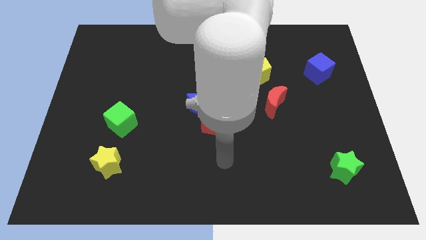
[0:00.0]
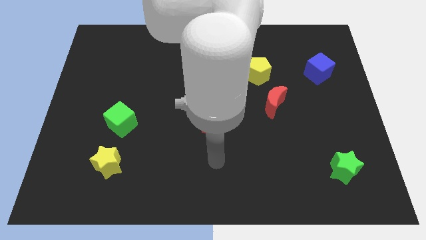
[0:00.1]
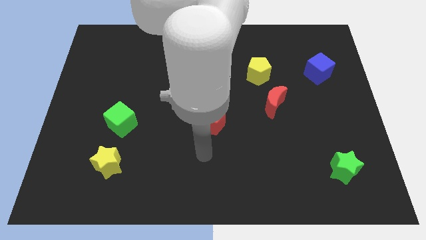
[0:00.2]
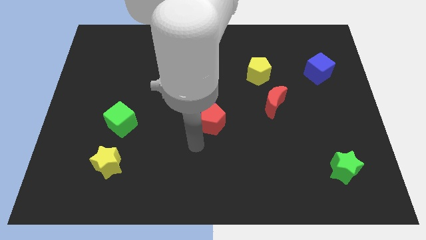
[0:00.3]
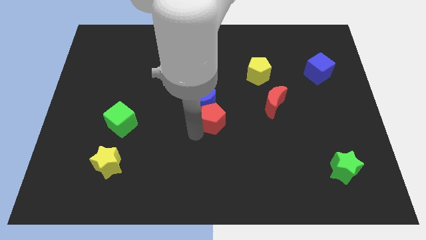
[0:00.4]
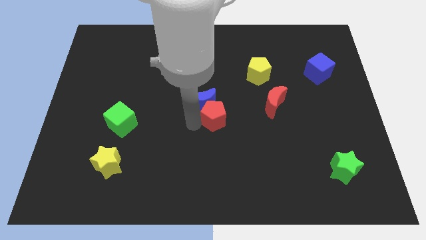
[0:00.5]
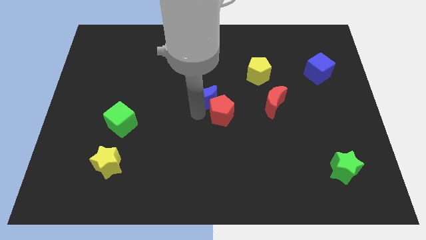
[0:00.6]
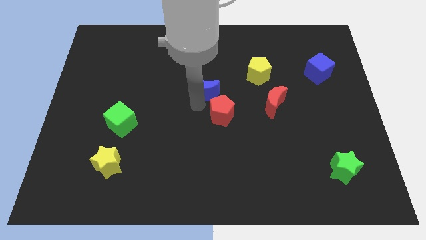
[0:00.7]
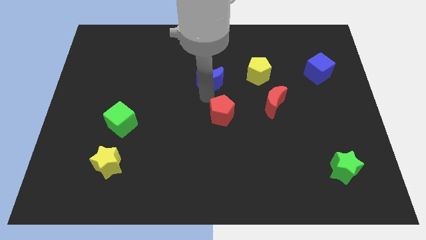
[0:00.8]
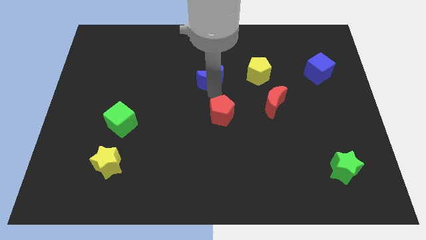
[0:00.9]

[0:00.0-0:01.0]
move the red pentagon away from the blue moon

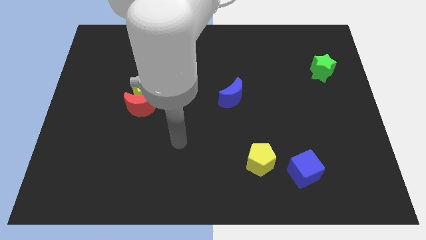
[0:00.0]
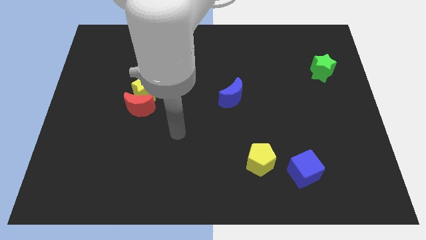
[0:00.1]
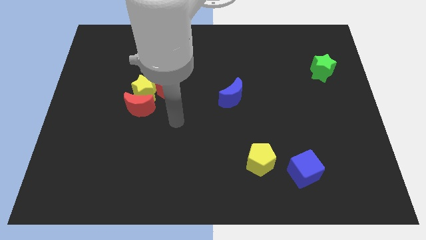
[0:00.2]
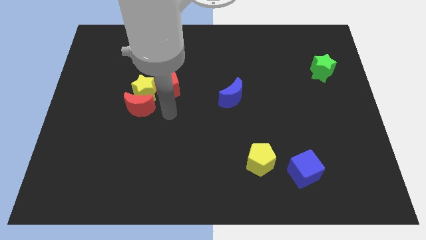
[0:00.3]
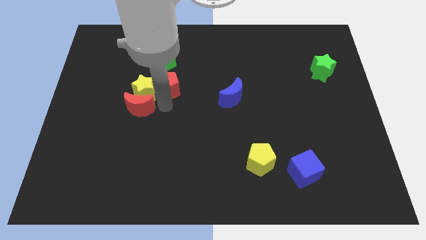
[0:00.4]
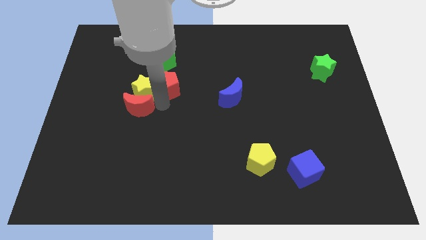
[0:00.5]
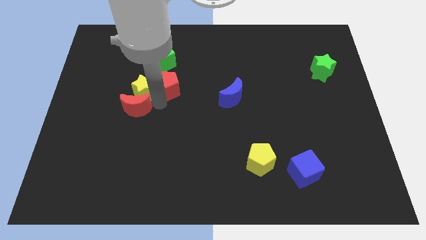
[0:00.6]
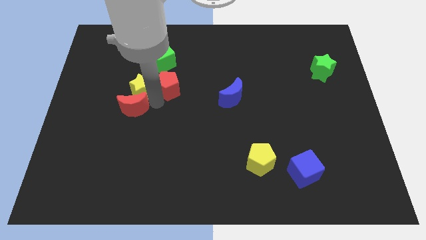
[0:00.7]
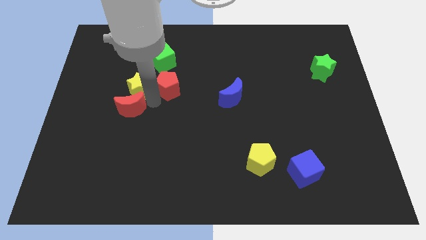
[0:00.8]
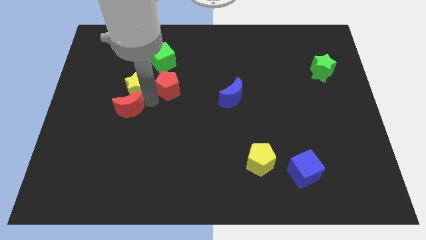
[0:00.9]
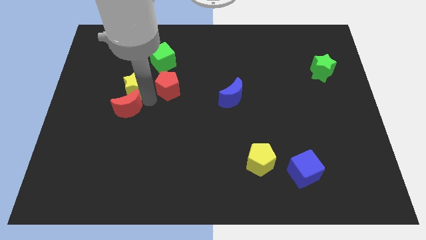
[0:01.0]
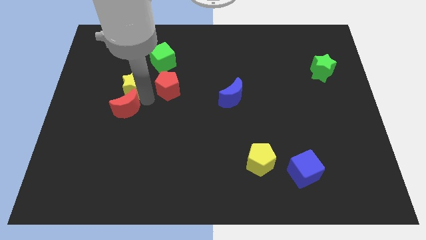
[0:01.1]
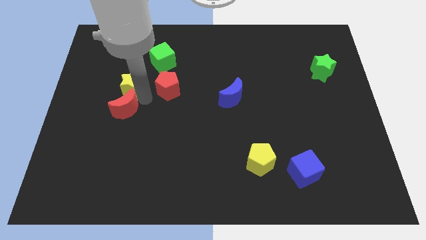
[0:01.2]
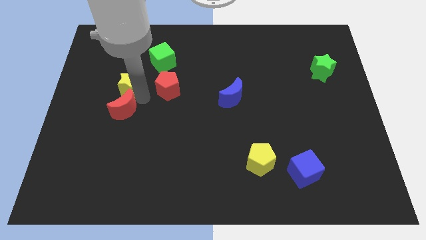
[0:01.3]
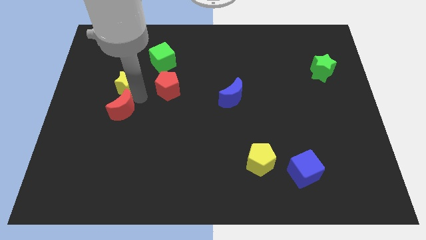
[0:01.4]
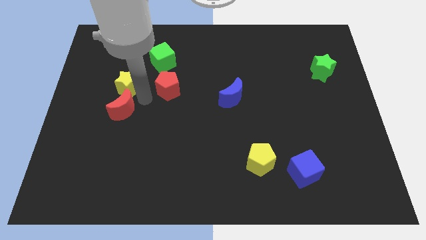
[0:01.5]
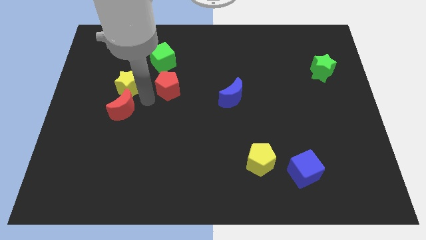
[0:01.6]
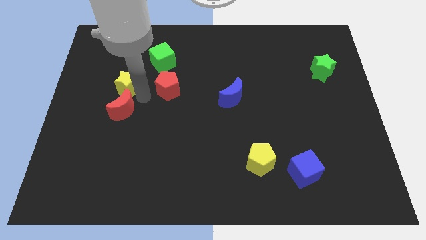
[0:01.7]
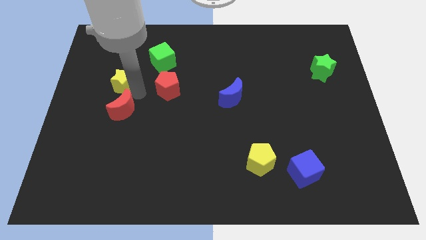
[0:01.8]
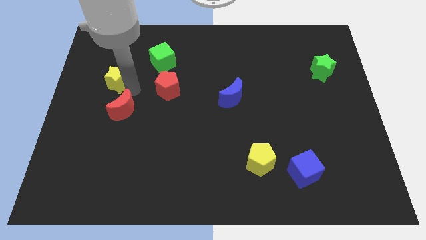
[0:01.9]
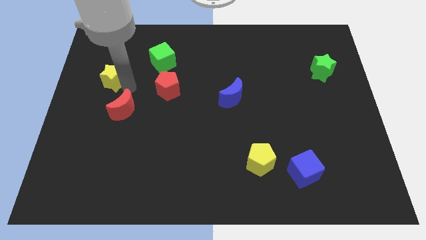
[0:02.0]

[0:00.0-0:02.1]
pull the yellow star apart from the red moon and red pentagon

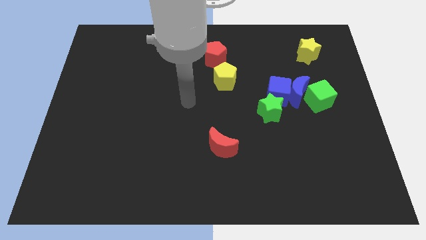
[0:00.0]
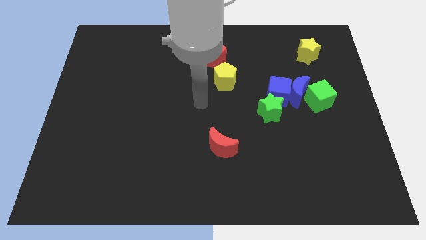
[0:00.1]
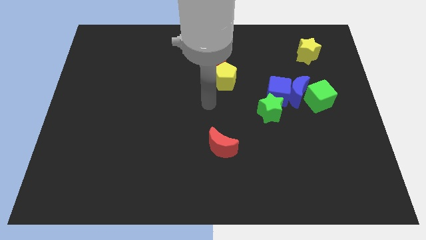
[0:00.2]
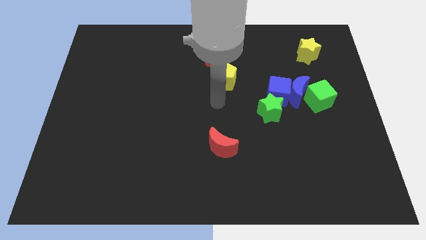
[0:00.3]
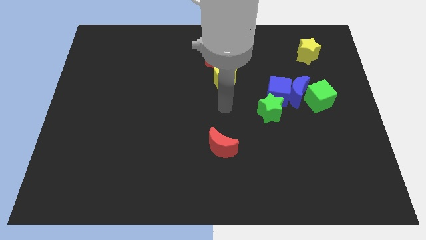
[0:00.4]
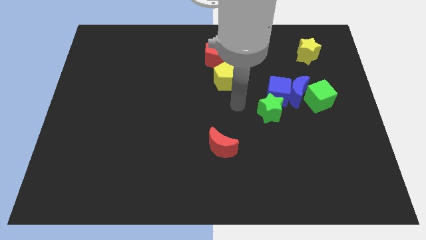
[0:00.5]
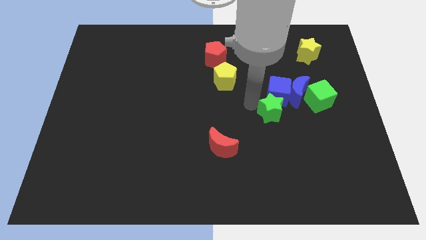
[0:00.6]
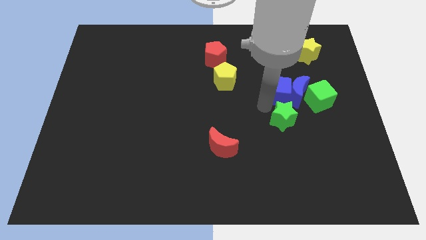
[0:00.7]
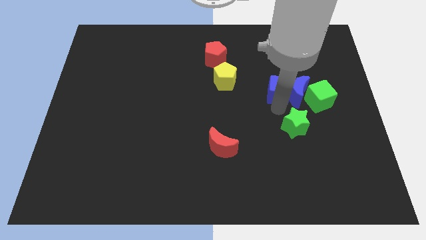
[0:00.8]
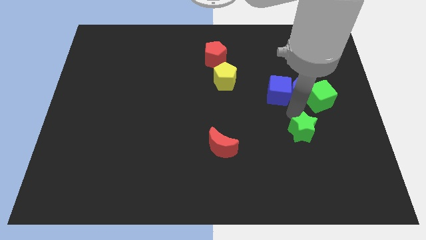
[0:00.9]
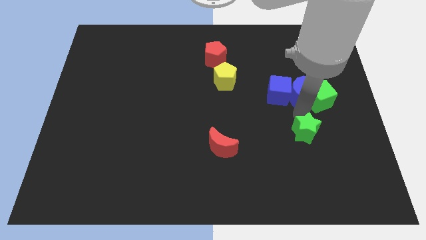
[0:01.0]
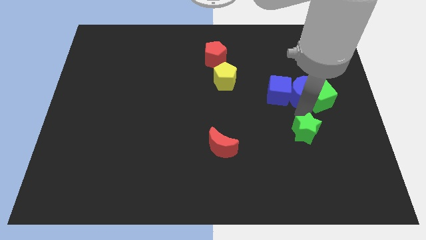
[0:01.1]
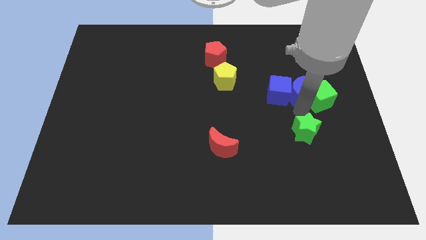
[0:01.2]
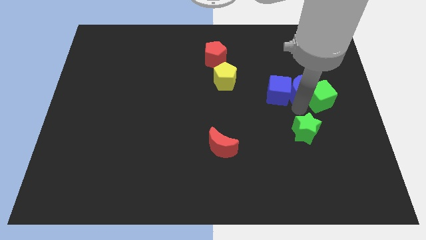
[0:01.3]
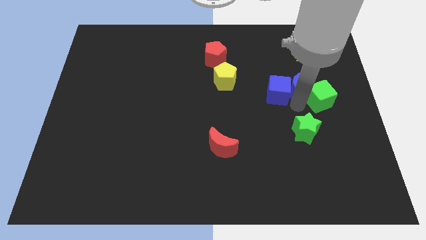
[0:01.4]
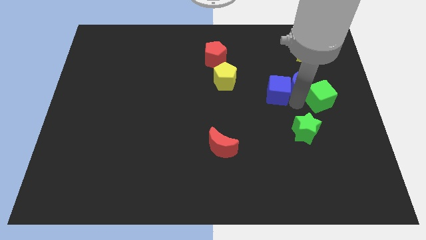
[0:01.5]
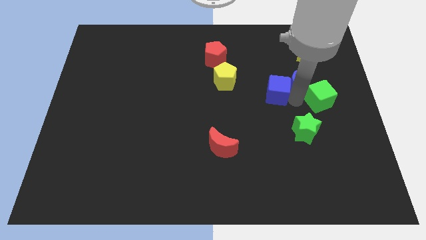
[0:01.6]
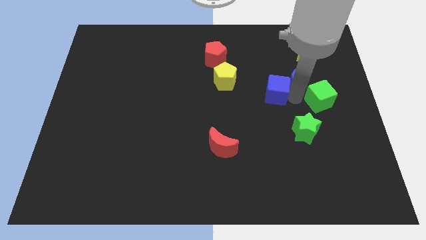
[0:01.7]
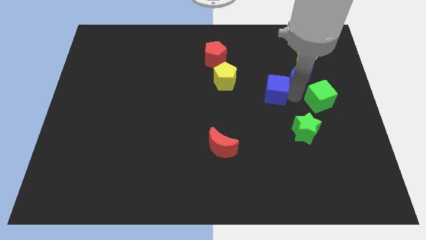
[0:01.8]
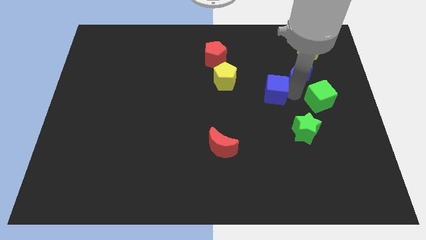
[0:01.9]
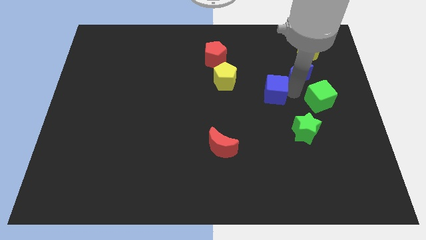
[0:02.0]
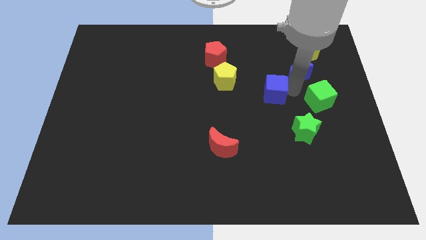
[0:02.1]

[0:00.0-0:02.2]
move the blue moon away from the blue cube, green cube, and green star

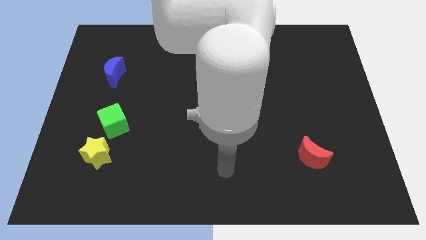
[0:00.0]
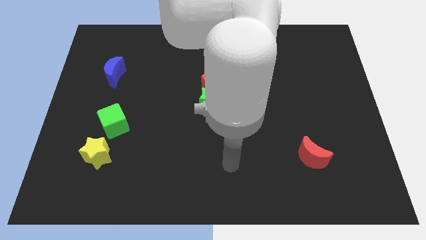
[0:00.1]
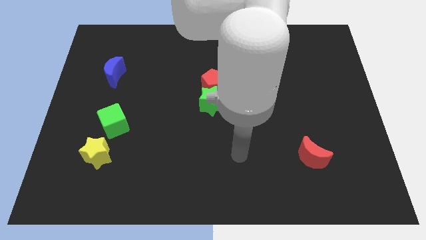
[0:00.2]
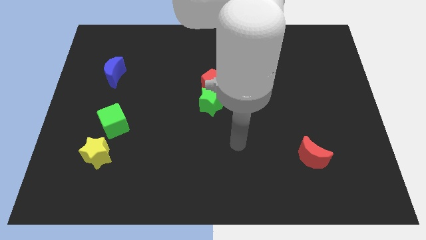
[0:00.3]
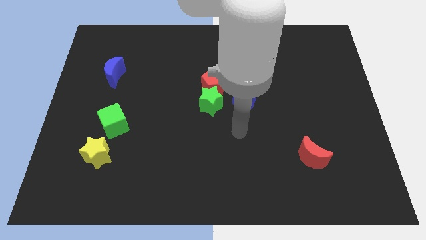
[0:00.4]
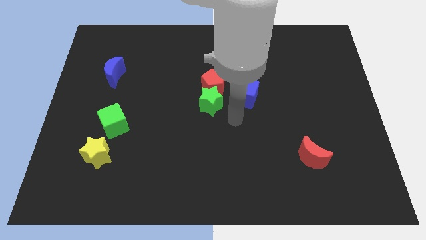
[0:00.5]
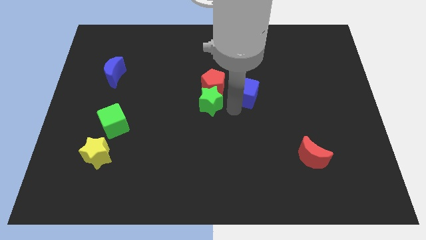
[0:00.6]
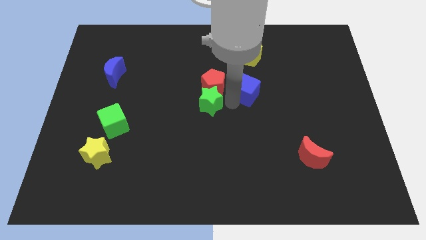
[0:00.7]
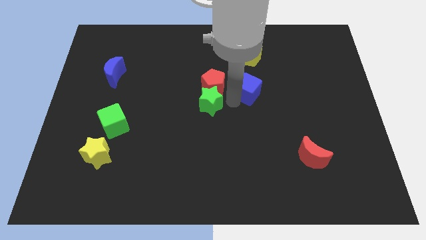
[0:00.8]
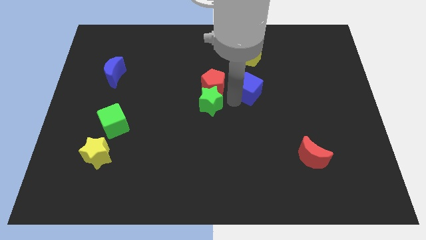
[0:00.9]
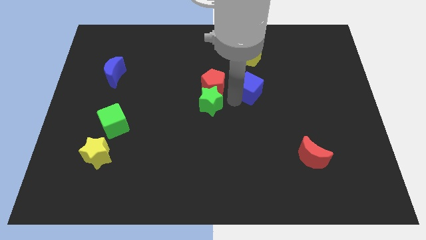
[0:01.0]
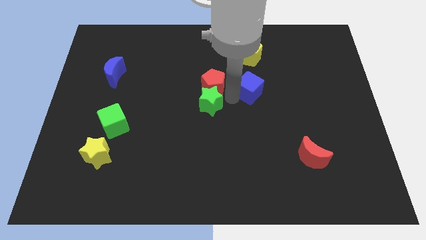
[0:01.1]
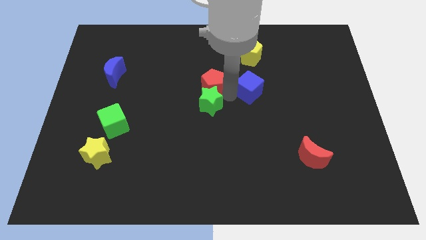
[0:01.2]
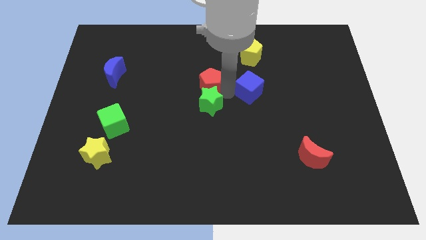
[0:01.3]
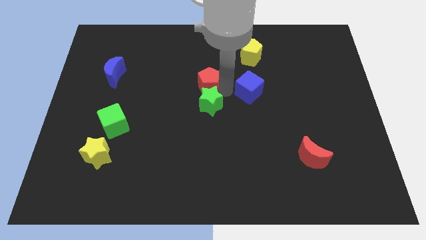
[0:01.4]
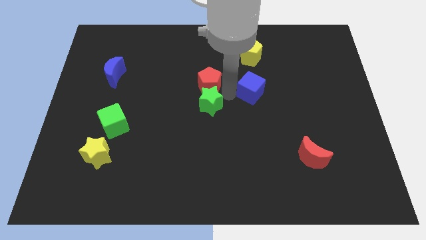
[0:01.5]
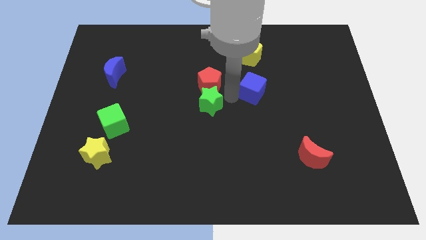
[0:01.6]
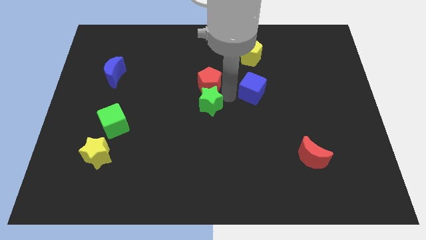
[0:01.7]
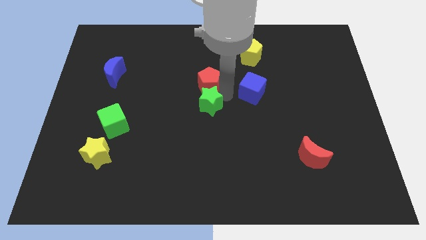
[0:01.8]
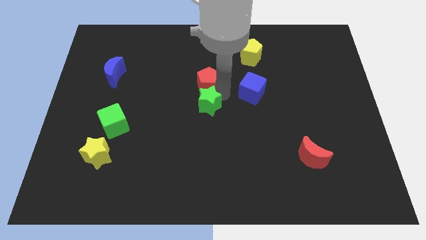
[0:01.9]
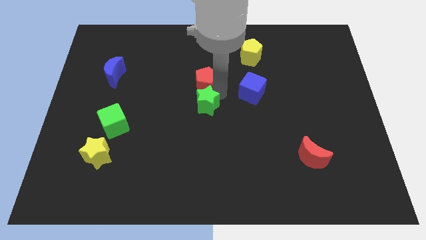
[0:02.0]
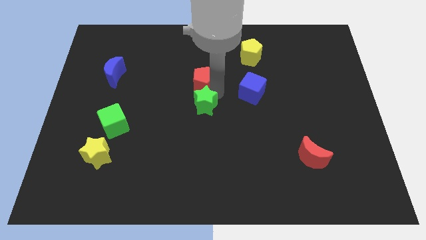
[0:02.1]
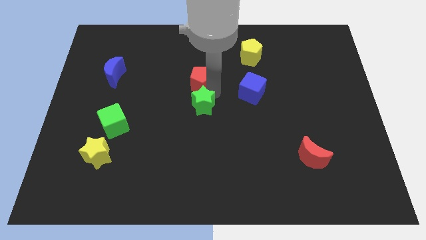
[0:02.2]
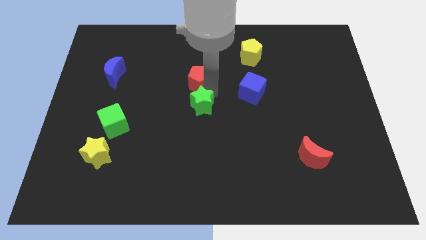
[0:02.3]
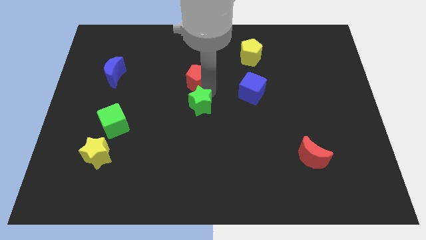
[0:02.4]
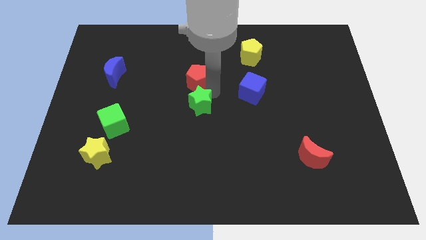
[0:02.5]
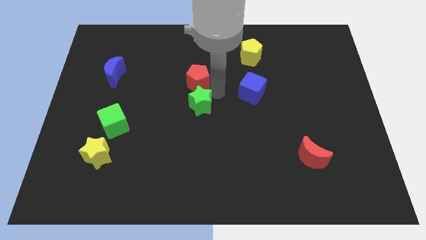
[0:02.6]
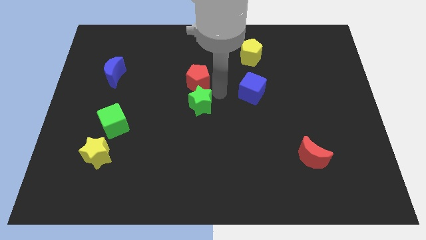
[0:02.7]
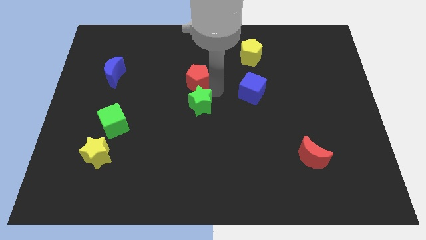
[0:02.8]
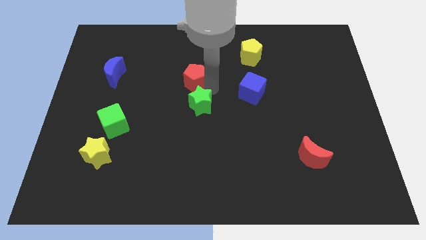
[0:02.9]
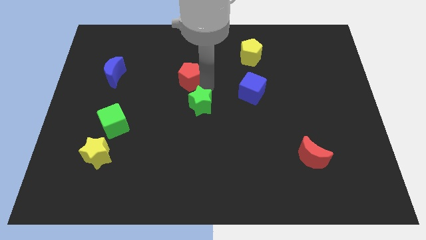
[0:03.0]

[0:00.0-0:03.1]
separate the red pentagon from the green star and blue cube

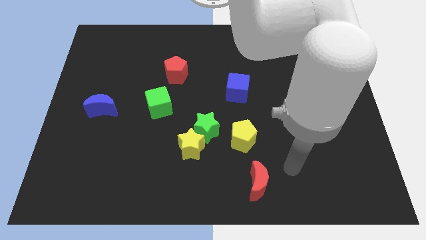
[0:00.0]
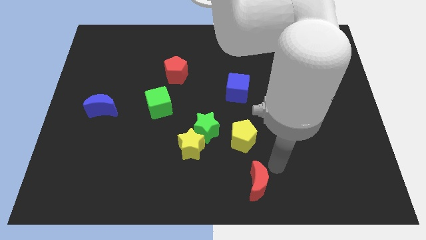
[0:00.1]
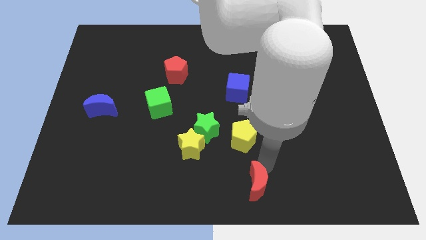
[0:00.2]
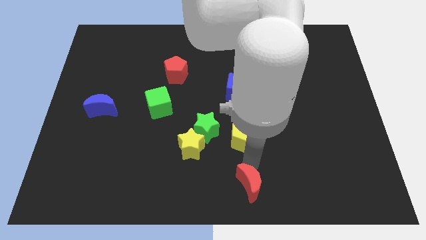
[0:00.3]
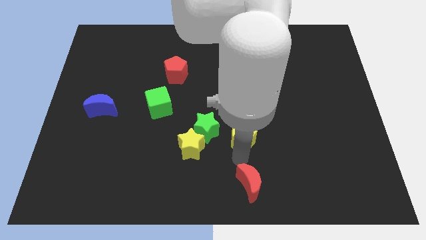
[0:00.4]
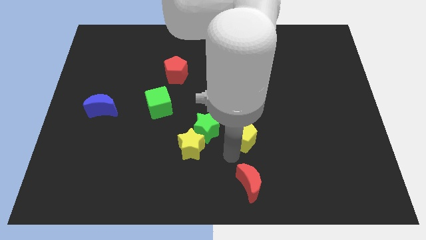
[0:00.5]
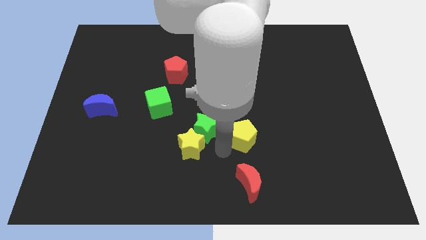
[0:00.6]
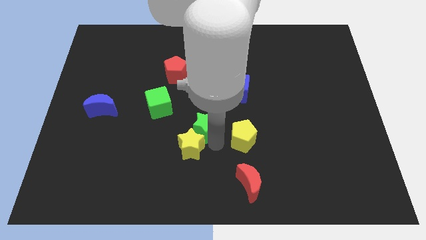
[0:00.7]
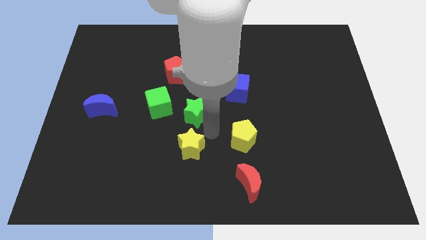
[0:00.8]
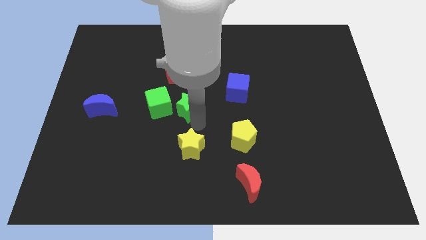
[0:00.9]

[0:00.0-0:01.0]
pull the yellow star apart from the green star
